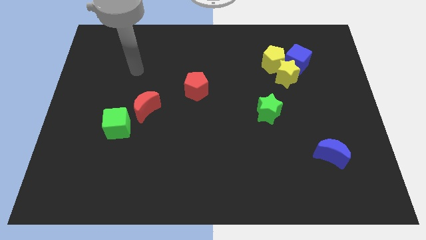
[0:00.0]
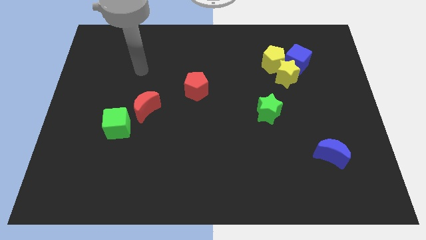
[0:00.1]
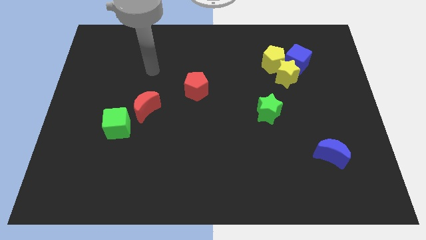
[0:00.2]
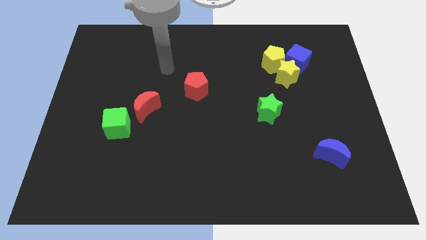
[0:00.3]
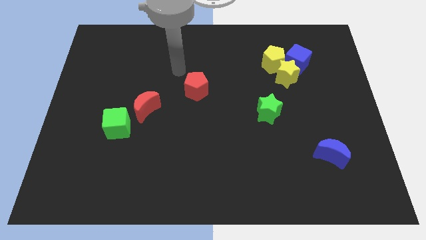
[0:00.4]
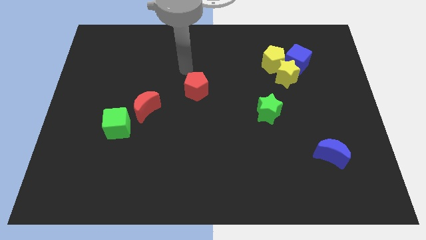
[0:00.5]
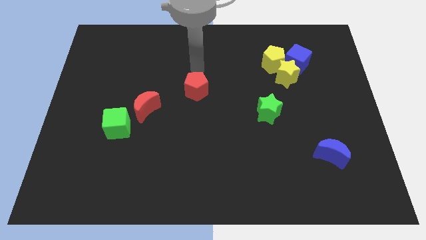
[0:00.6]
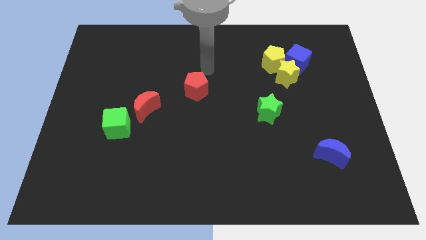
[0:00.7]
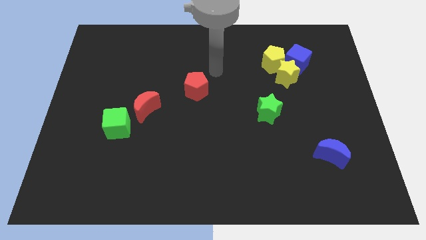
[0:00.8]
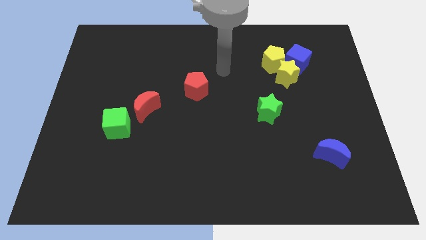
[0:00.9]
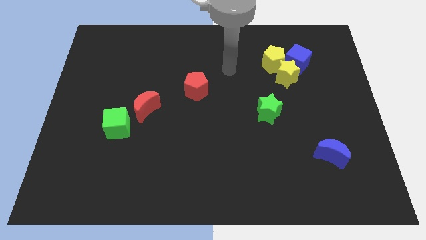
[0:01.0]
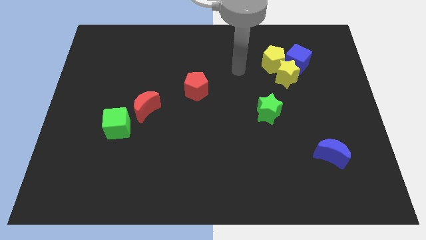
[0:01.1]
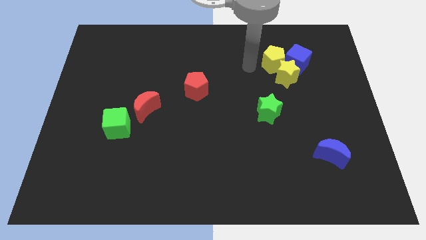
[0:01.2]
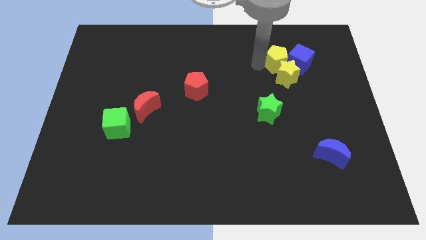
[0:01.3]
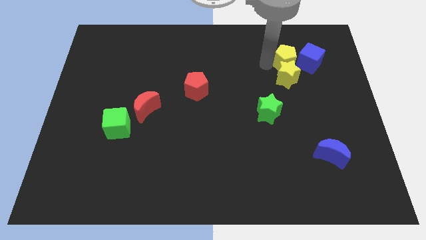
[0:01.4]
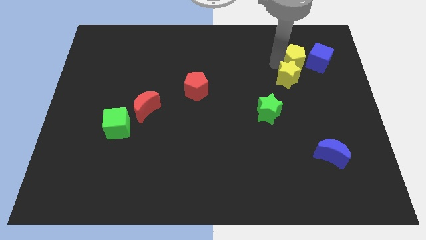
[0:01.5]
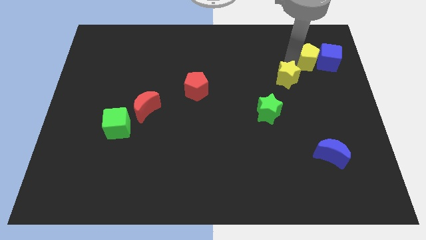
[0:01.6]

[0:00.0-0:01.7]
move the yellow star away from the yellow pentagon and blue cube

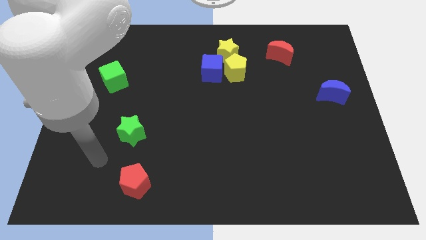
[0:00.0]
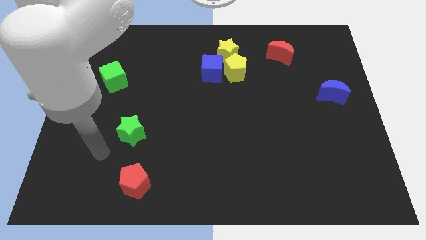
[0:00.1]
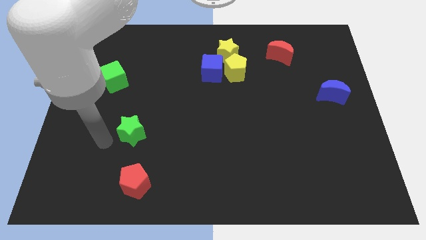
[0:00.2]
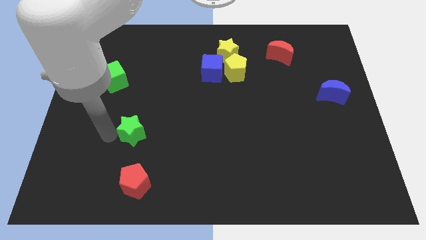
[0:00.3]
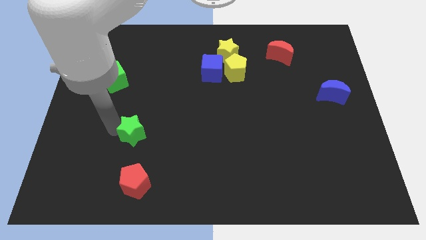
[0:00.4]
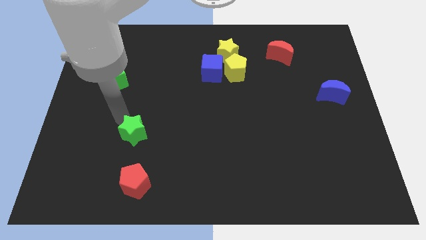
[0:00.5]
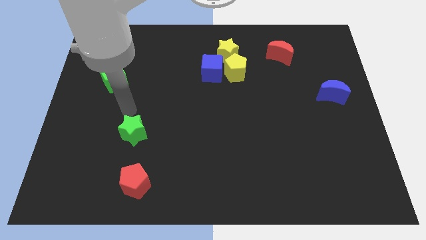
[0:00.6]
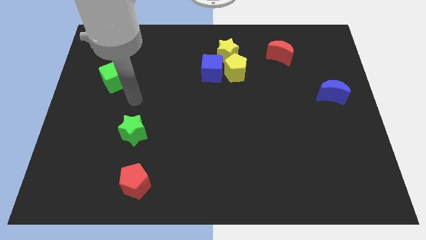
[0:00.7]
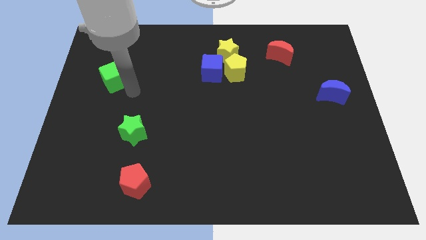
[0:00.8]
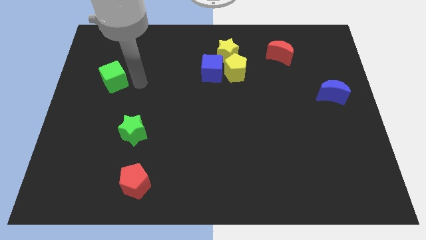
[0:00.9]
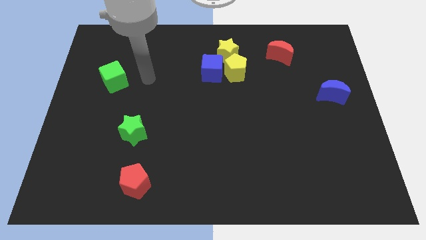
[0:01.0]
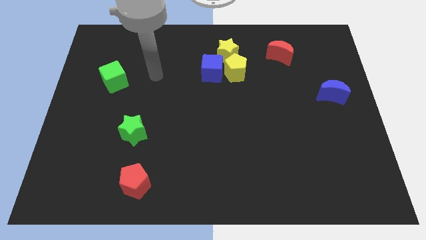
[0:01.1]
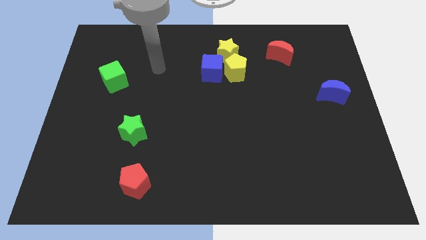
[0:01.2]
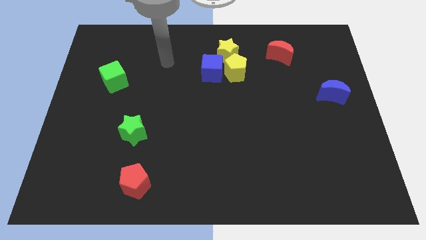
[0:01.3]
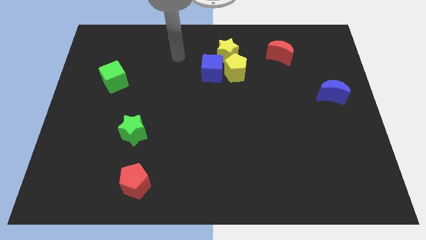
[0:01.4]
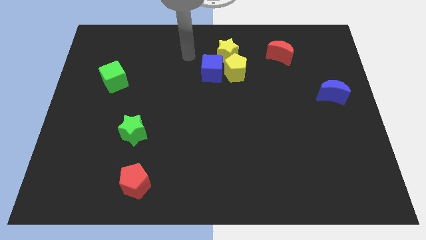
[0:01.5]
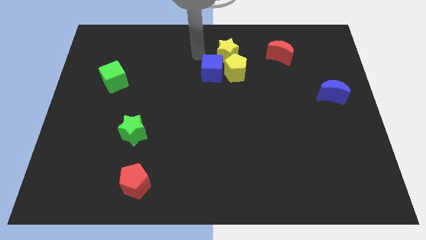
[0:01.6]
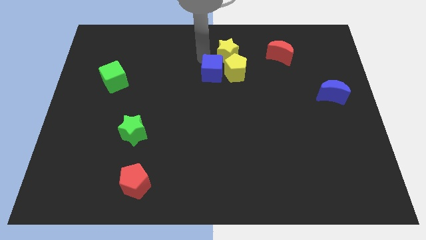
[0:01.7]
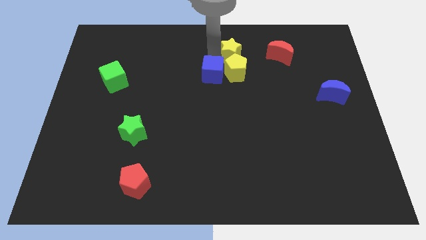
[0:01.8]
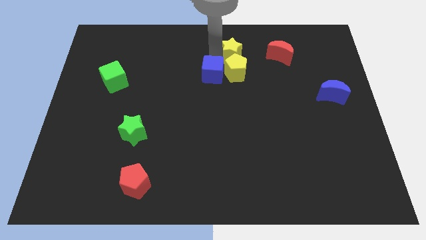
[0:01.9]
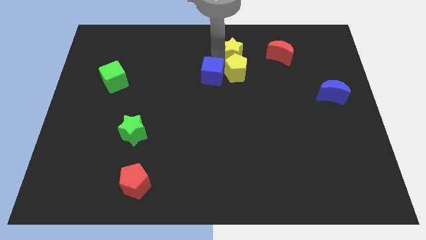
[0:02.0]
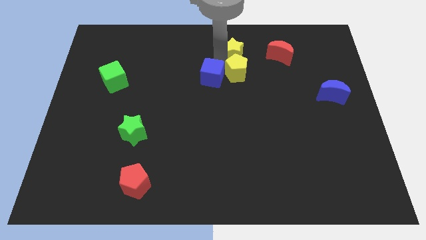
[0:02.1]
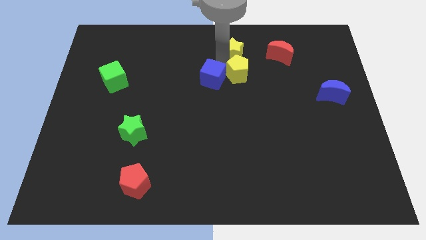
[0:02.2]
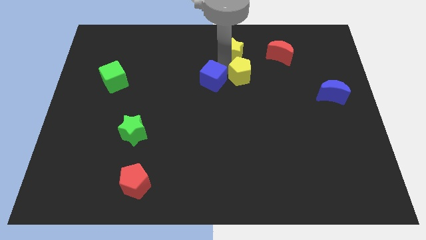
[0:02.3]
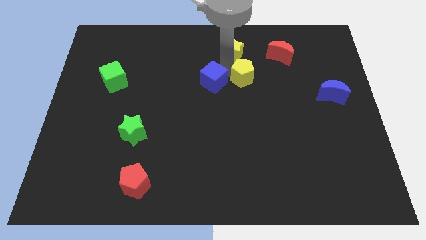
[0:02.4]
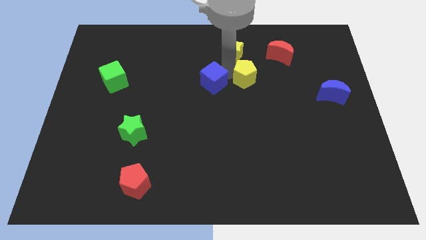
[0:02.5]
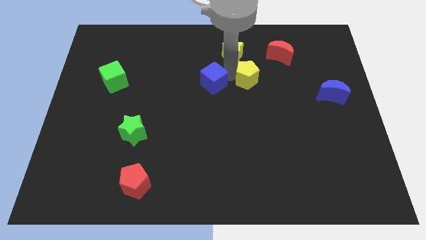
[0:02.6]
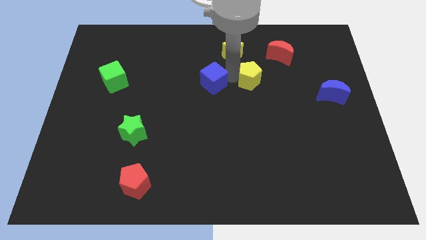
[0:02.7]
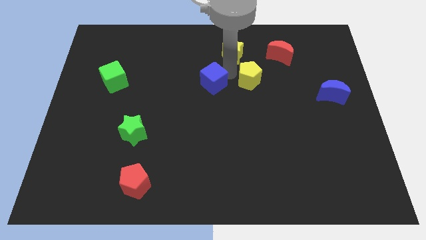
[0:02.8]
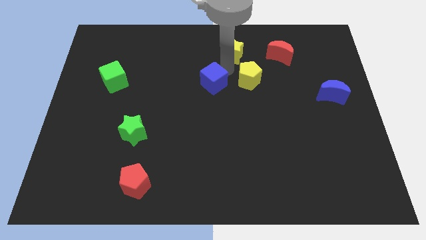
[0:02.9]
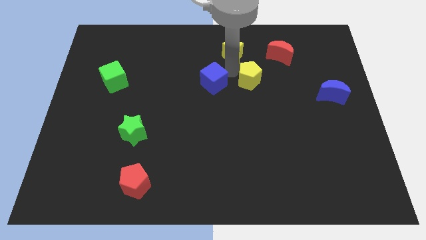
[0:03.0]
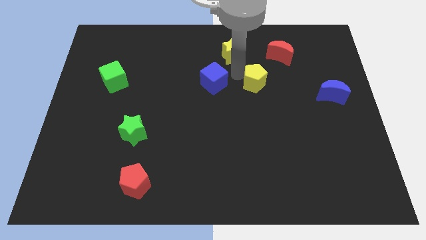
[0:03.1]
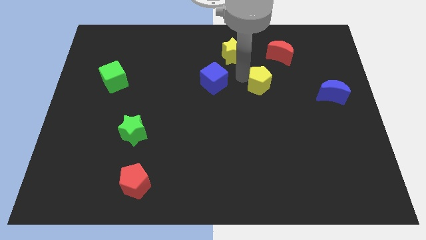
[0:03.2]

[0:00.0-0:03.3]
move the yellow pentagon away from the blue cube and yellow star

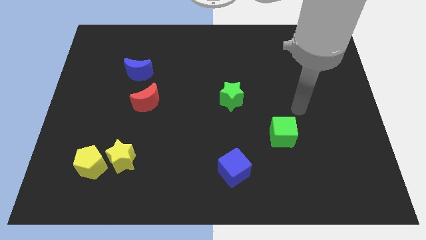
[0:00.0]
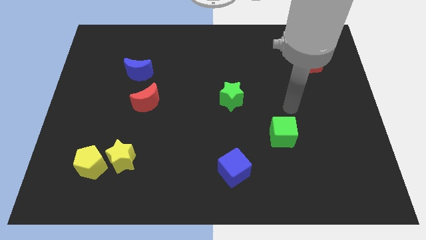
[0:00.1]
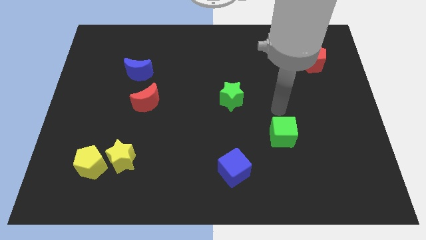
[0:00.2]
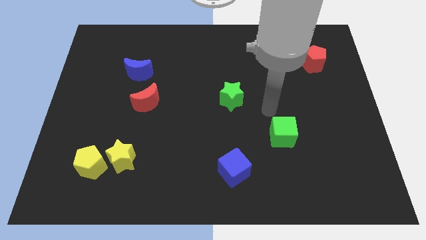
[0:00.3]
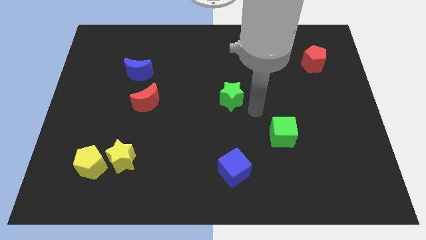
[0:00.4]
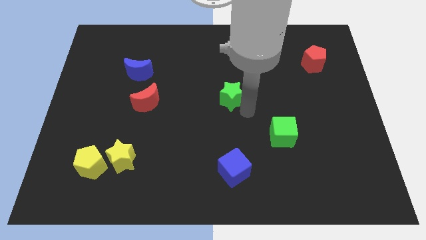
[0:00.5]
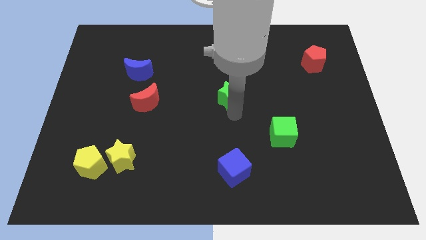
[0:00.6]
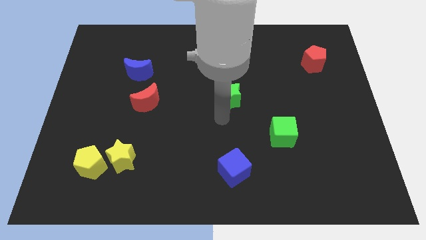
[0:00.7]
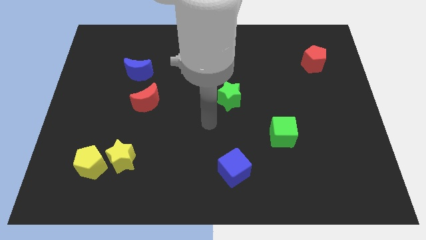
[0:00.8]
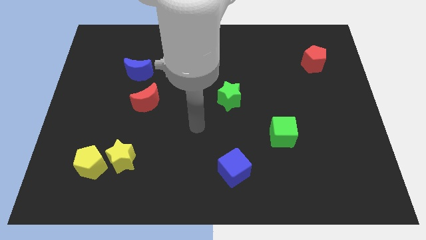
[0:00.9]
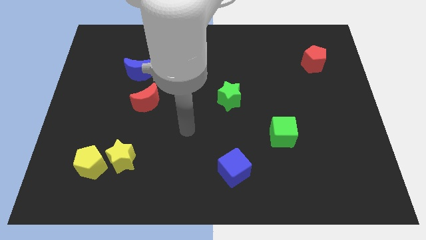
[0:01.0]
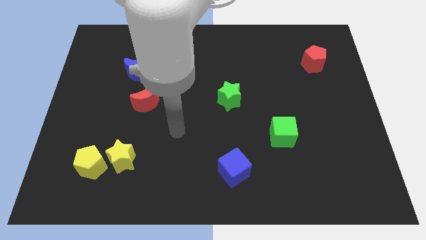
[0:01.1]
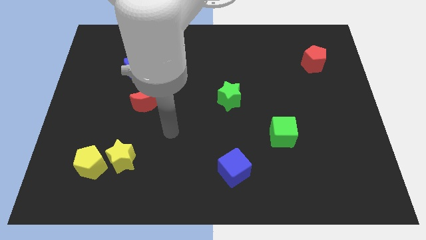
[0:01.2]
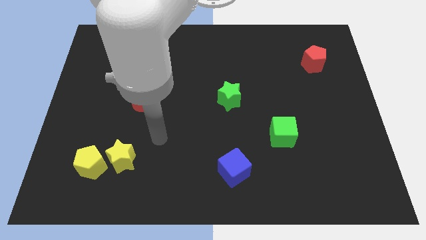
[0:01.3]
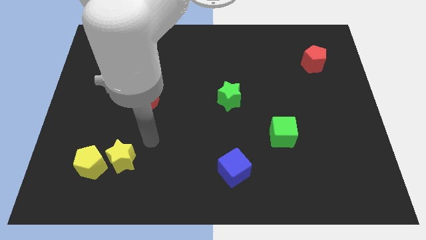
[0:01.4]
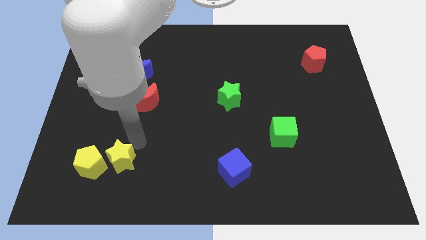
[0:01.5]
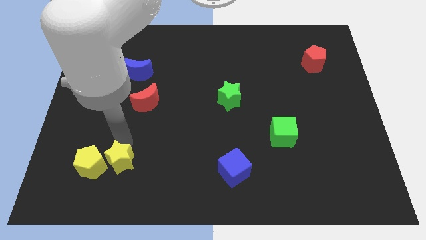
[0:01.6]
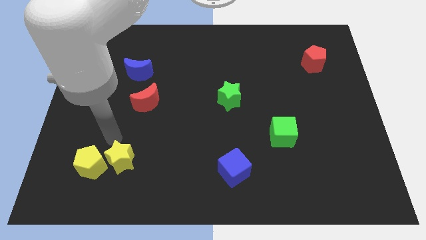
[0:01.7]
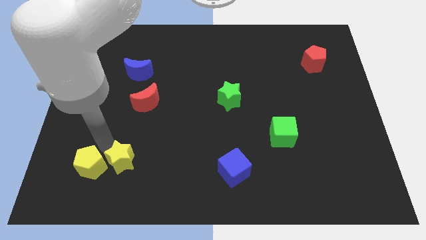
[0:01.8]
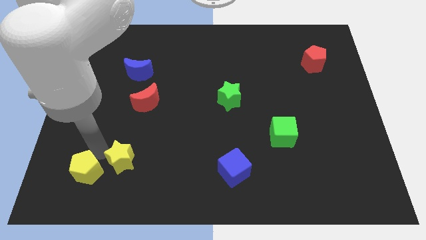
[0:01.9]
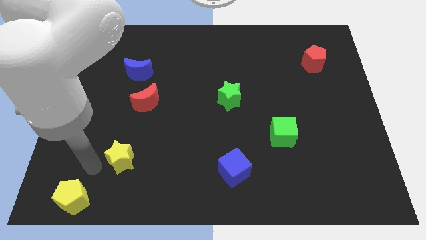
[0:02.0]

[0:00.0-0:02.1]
separate the yellow star from the yellow pentagon

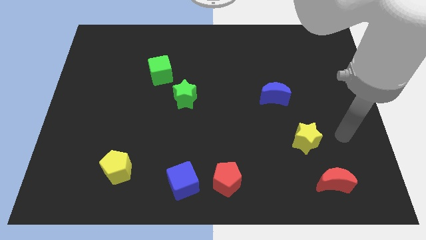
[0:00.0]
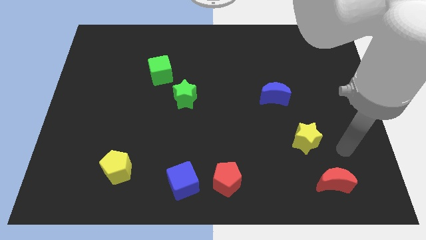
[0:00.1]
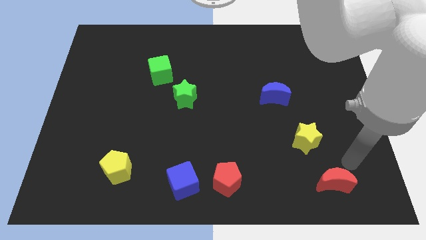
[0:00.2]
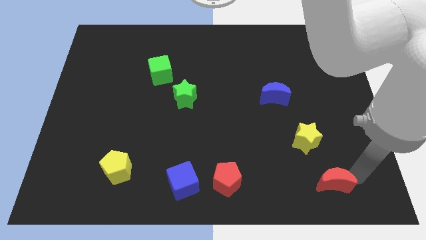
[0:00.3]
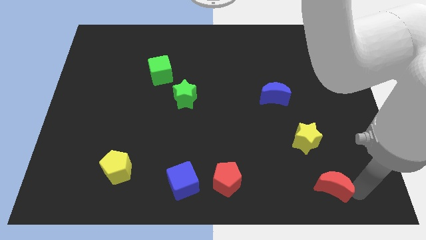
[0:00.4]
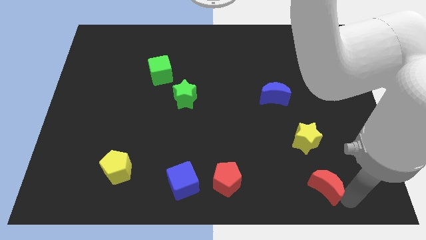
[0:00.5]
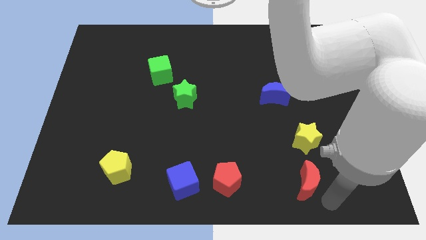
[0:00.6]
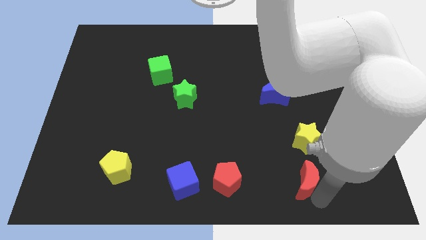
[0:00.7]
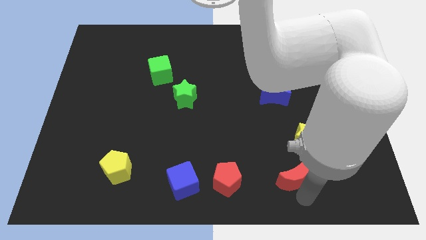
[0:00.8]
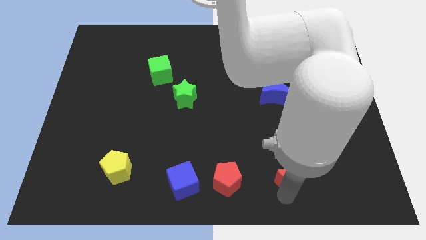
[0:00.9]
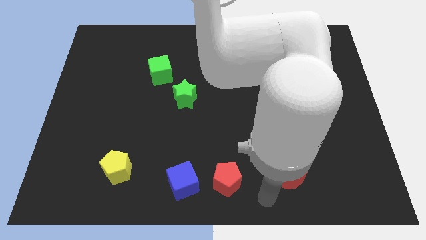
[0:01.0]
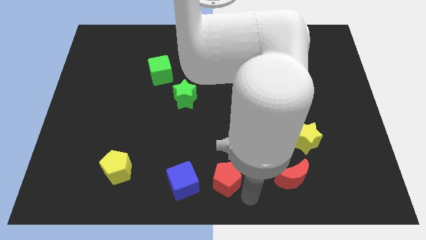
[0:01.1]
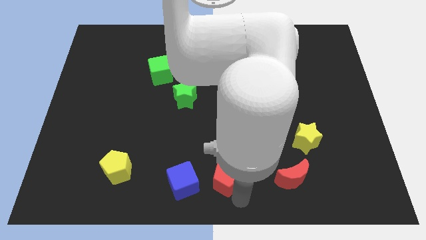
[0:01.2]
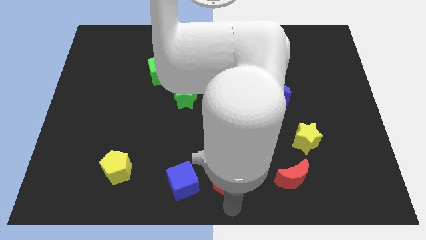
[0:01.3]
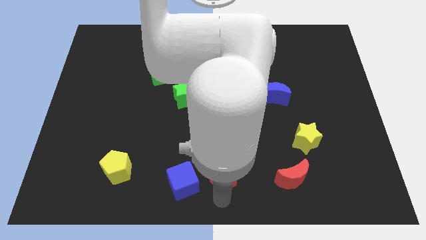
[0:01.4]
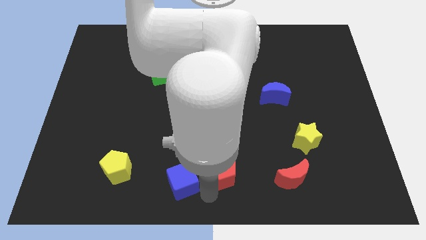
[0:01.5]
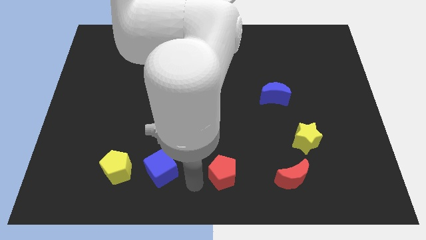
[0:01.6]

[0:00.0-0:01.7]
move the red pentagon away from the blue cube

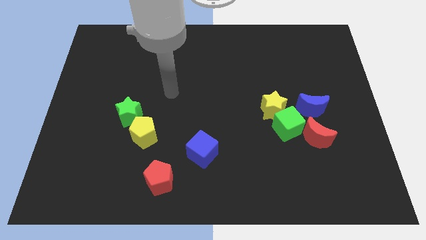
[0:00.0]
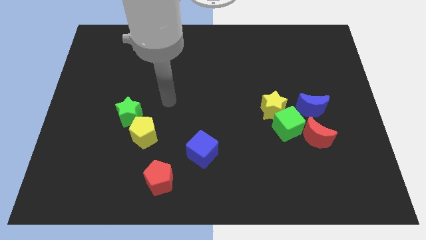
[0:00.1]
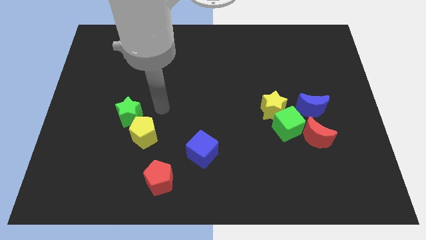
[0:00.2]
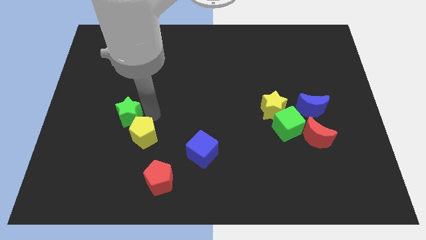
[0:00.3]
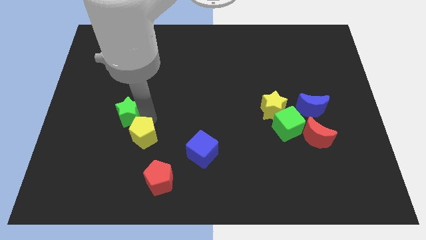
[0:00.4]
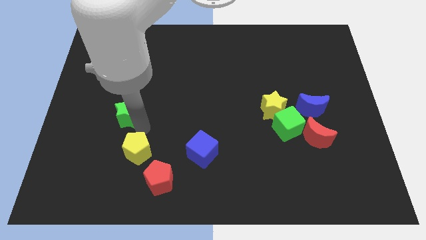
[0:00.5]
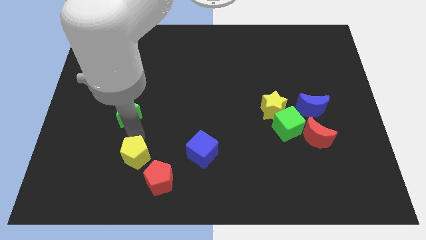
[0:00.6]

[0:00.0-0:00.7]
pull the green star apart from the yellow pentagon
